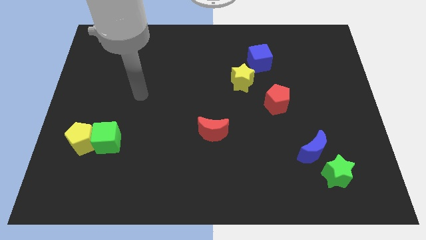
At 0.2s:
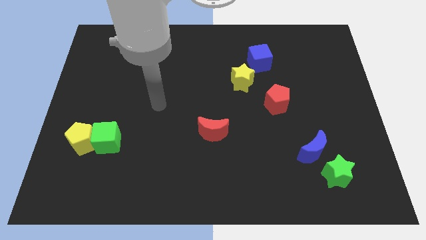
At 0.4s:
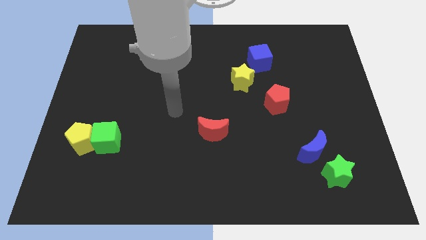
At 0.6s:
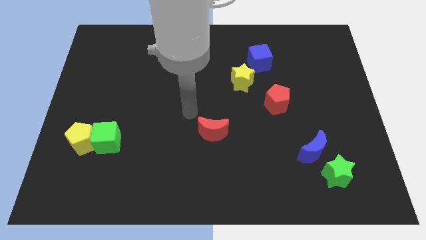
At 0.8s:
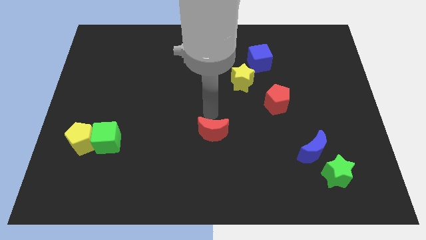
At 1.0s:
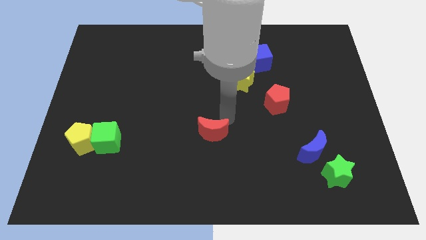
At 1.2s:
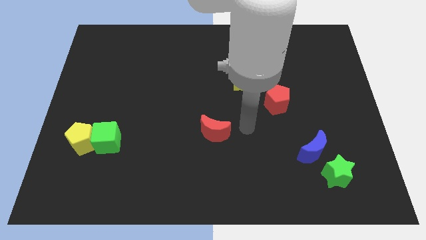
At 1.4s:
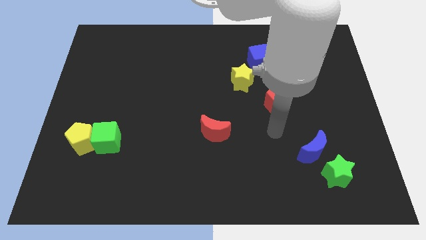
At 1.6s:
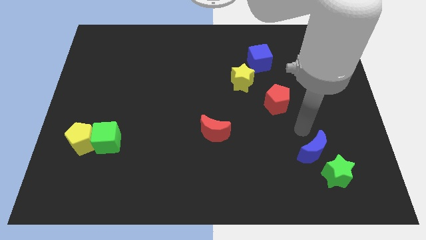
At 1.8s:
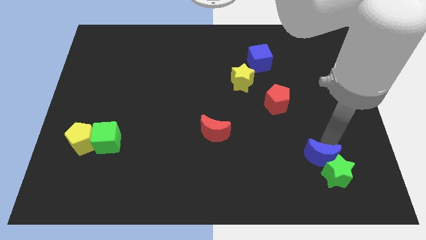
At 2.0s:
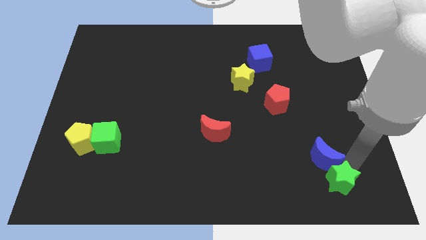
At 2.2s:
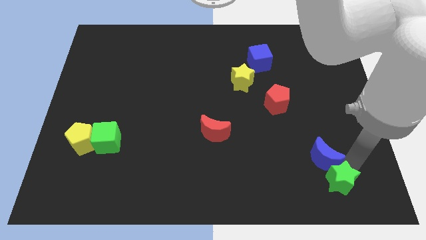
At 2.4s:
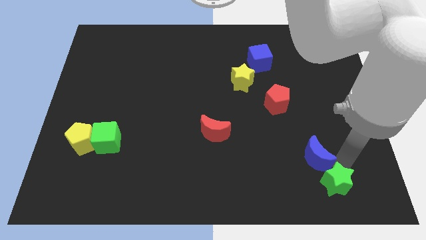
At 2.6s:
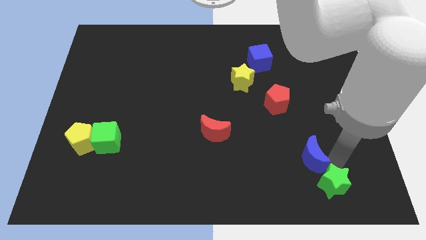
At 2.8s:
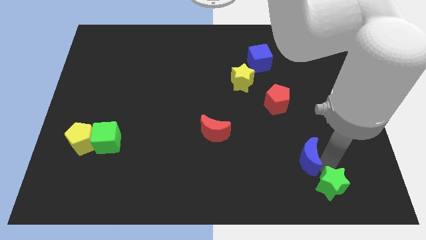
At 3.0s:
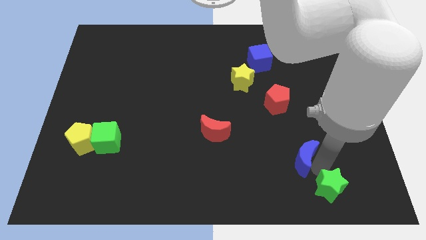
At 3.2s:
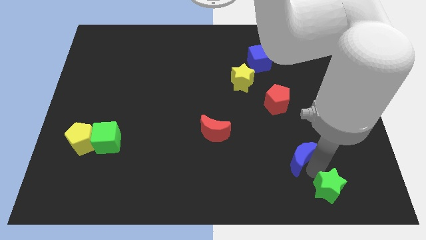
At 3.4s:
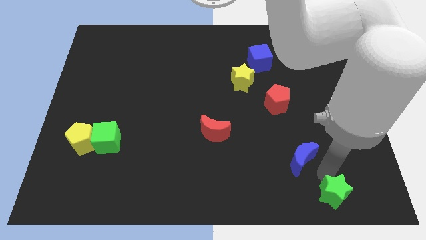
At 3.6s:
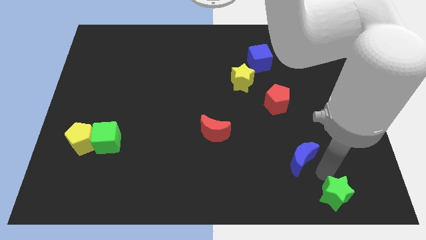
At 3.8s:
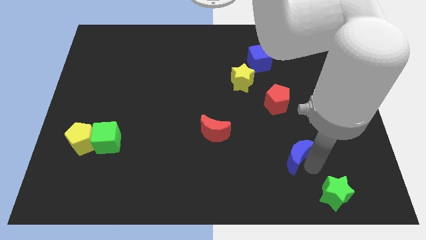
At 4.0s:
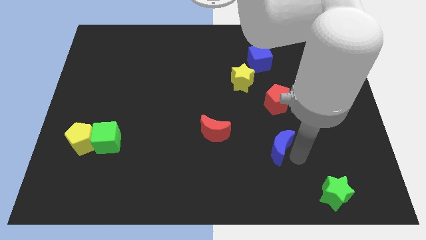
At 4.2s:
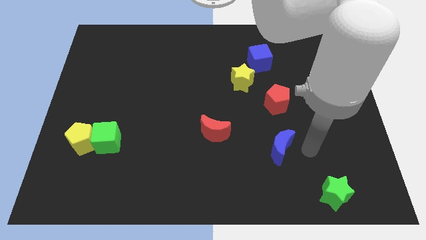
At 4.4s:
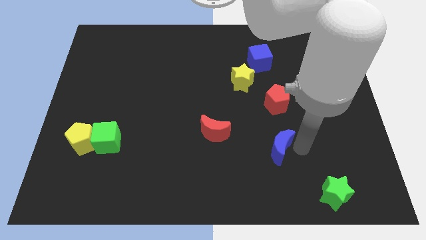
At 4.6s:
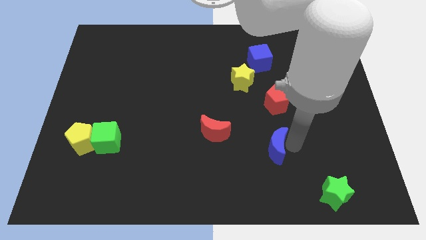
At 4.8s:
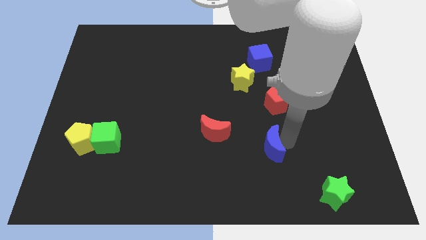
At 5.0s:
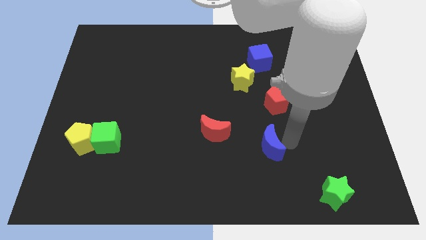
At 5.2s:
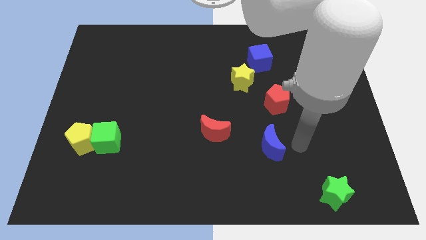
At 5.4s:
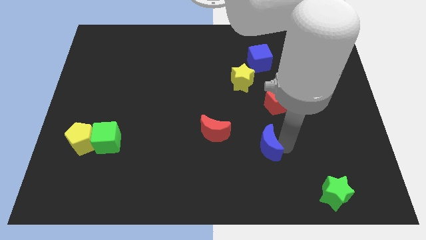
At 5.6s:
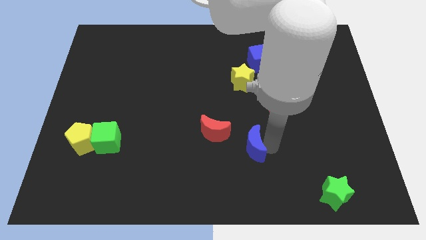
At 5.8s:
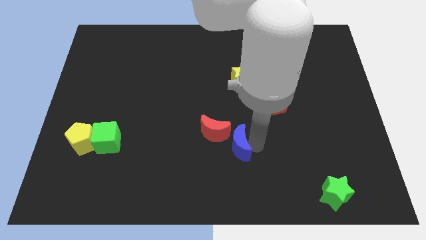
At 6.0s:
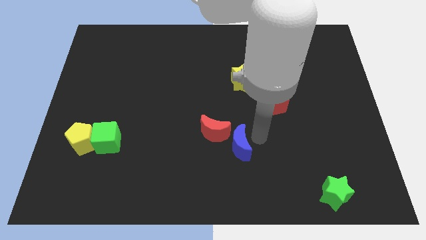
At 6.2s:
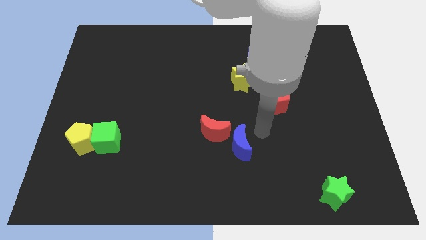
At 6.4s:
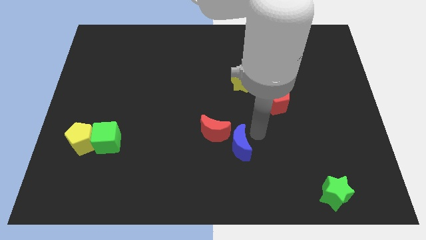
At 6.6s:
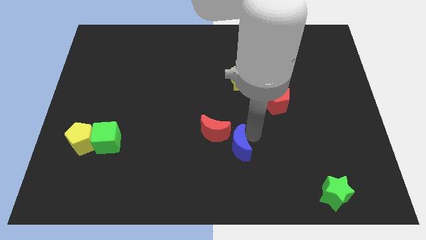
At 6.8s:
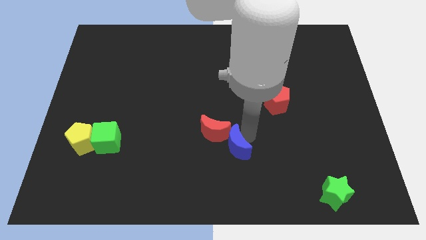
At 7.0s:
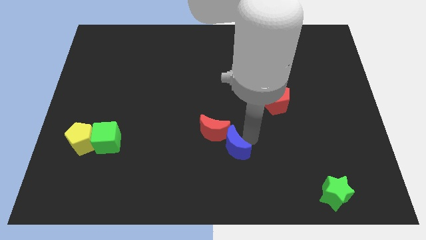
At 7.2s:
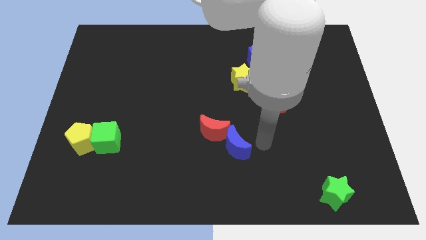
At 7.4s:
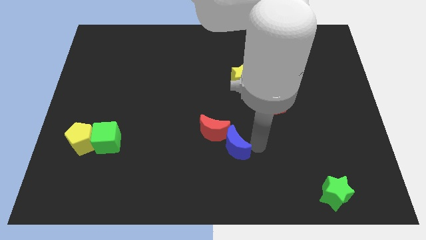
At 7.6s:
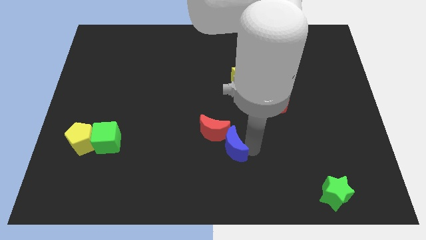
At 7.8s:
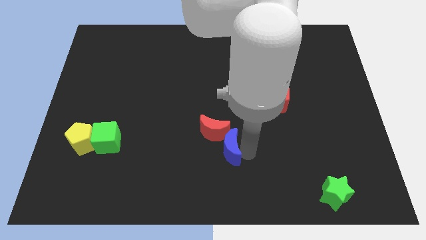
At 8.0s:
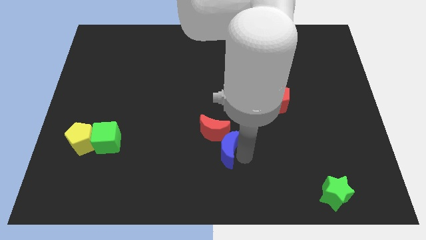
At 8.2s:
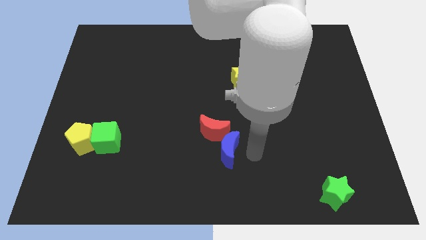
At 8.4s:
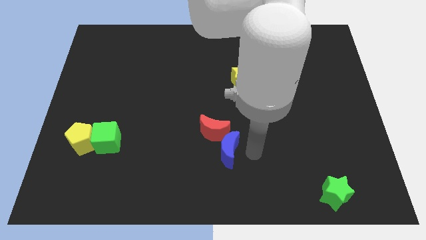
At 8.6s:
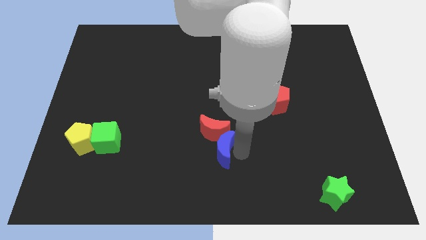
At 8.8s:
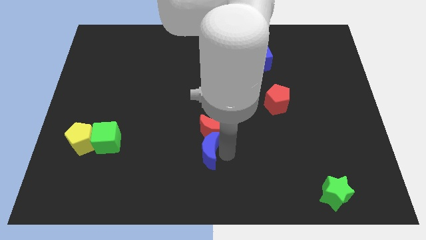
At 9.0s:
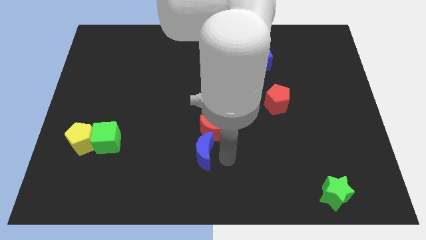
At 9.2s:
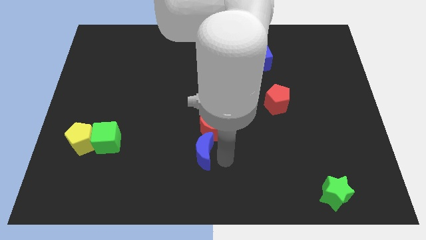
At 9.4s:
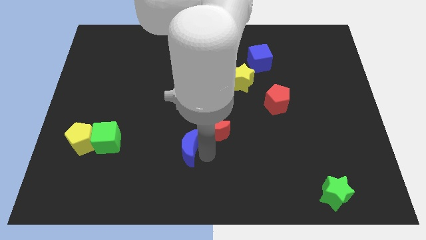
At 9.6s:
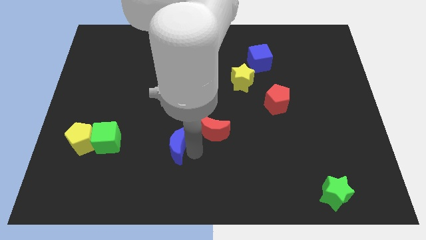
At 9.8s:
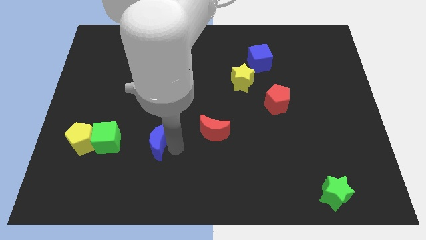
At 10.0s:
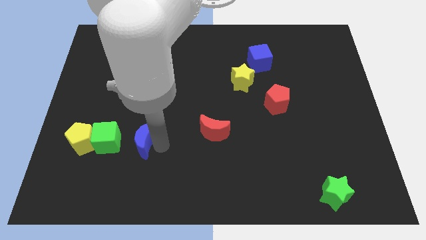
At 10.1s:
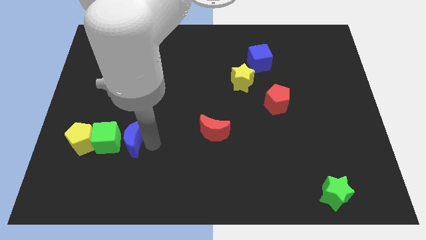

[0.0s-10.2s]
move the blue moon towards the green cube

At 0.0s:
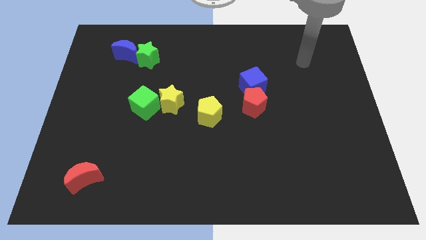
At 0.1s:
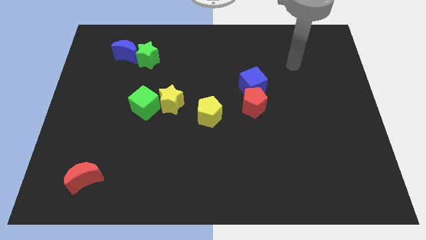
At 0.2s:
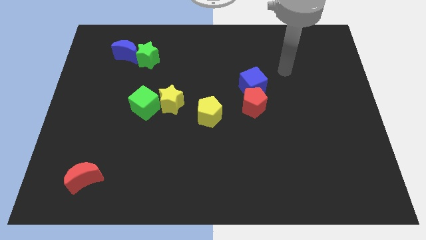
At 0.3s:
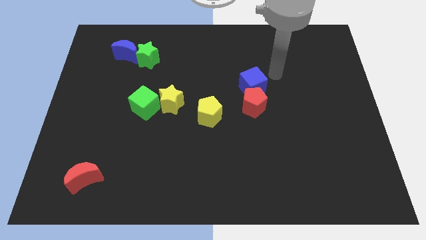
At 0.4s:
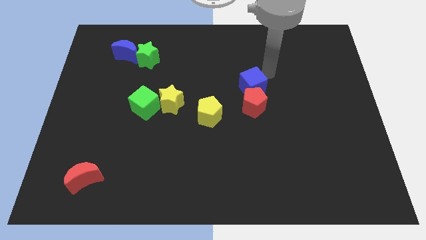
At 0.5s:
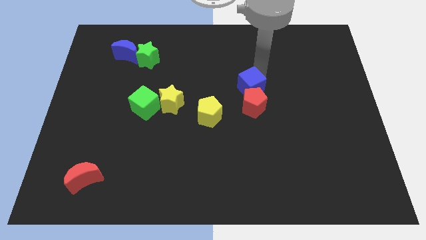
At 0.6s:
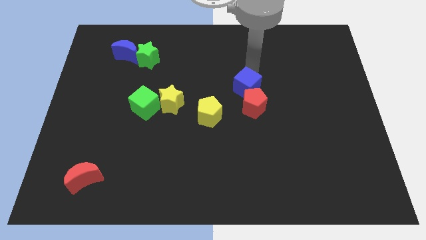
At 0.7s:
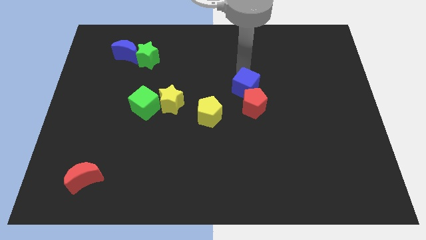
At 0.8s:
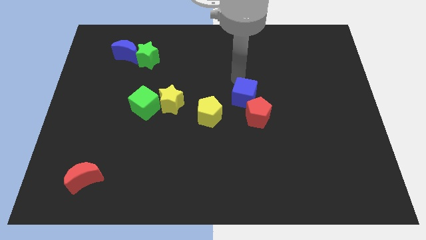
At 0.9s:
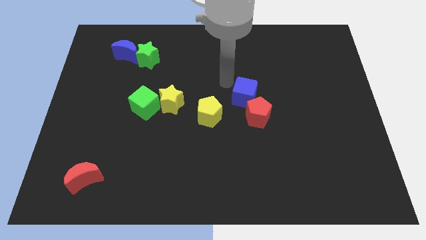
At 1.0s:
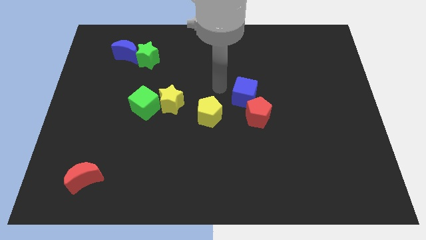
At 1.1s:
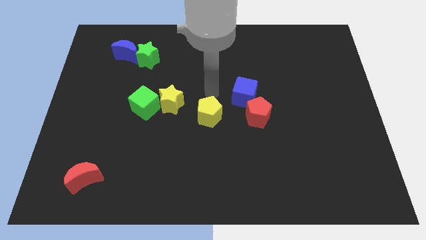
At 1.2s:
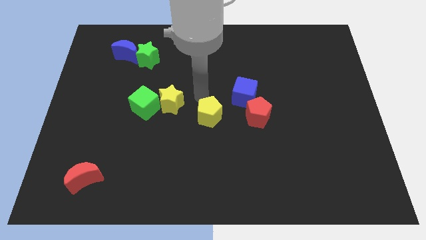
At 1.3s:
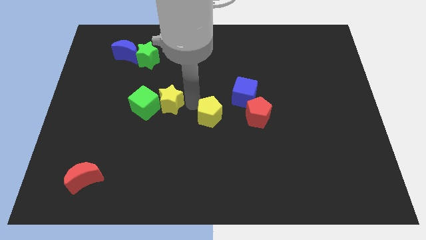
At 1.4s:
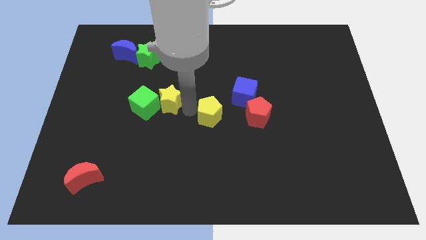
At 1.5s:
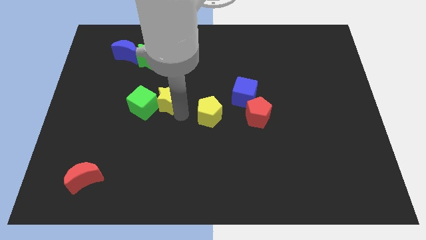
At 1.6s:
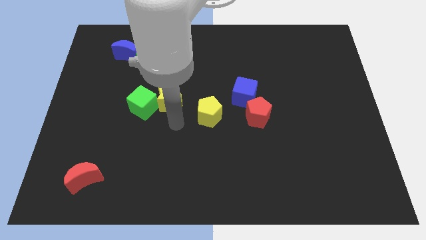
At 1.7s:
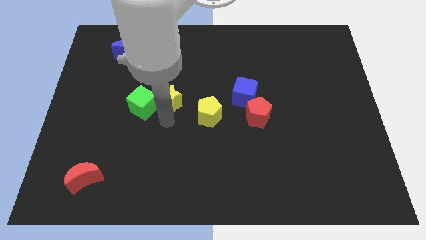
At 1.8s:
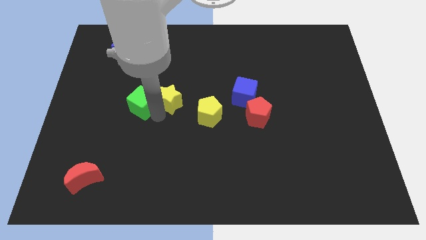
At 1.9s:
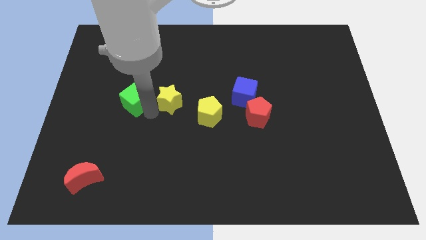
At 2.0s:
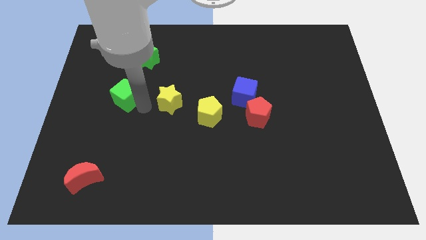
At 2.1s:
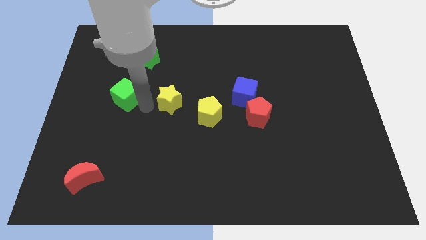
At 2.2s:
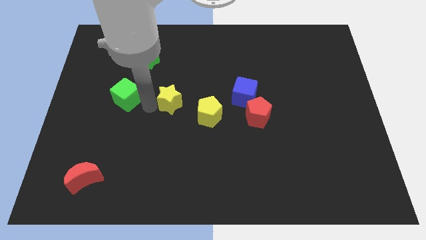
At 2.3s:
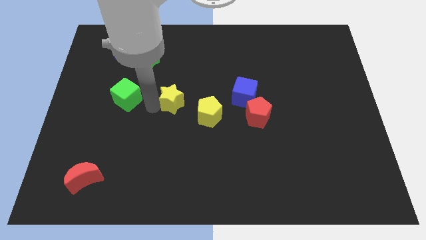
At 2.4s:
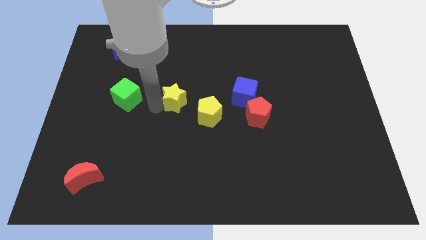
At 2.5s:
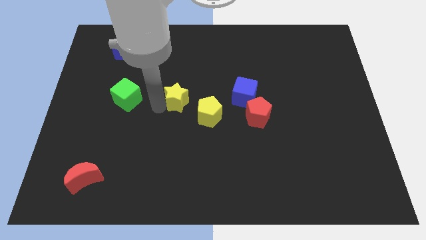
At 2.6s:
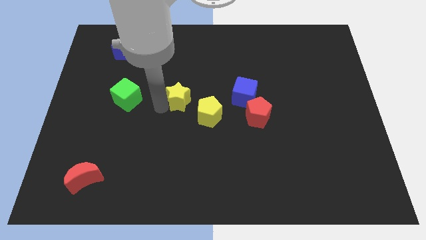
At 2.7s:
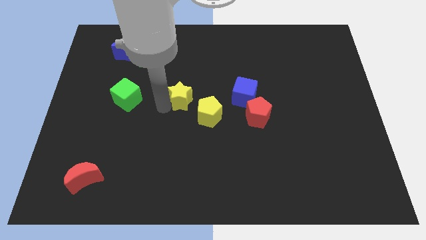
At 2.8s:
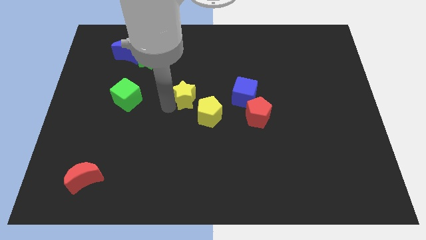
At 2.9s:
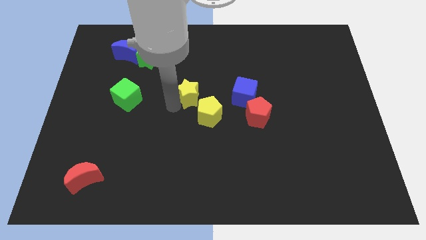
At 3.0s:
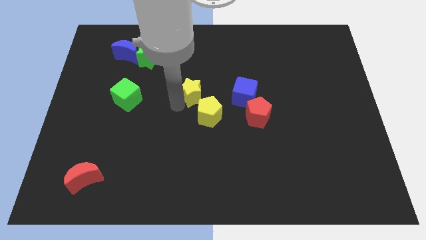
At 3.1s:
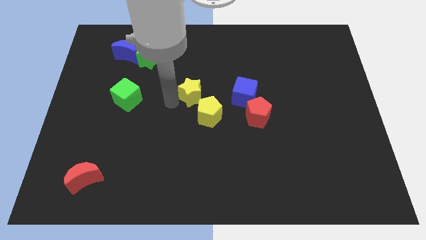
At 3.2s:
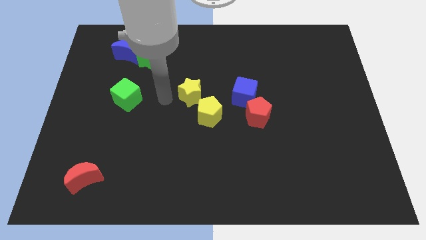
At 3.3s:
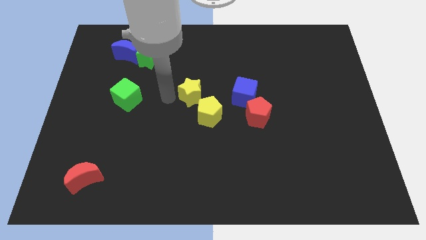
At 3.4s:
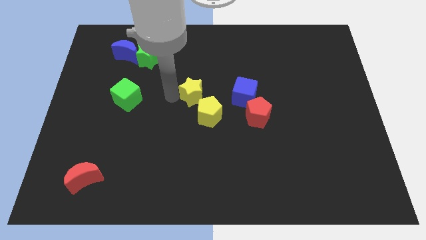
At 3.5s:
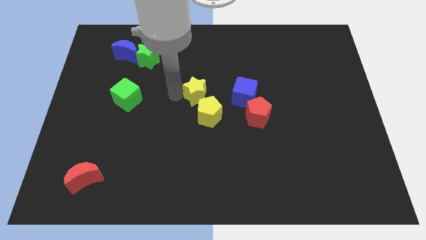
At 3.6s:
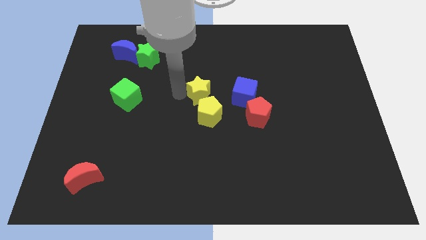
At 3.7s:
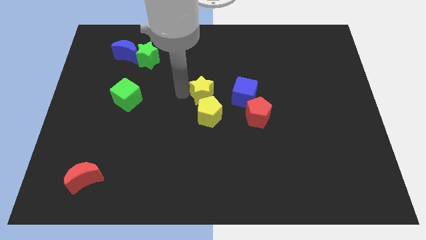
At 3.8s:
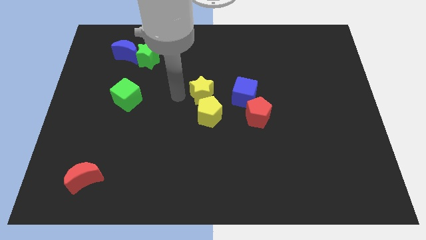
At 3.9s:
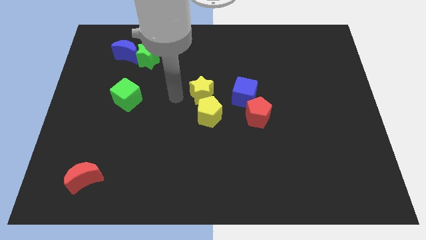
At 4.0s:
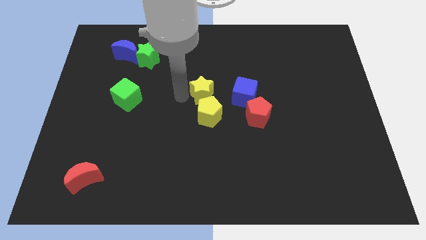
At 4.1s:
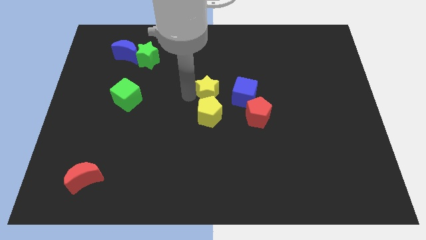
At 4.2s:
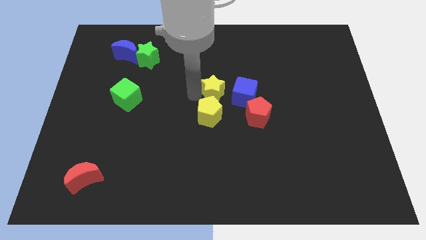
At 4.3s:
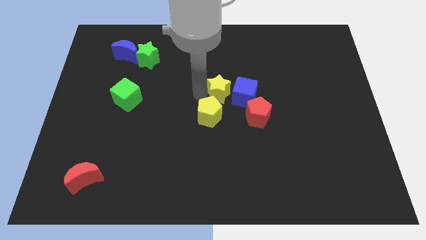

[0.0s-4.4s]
put the yellow star next to the blue cube
